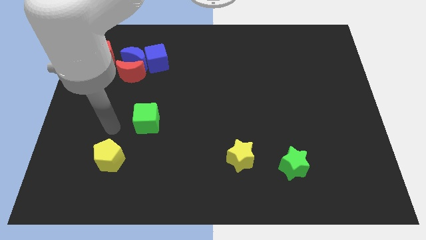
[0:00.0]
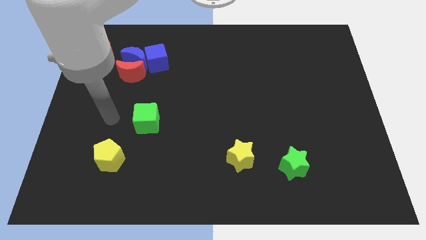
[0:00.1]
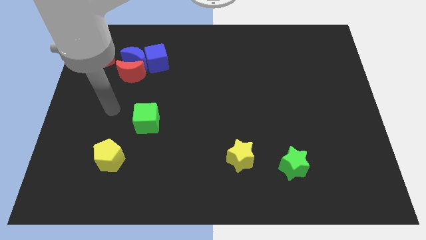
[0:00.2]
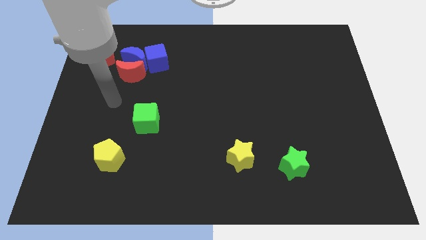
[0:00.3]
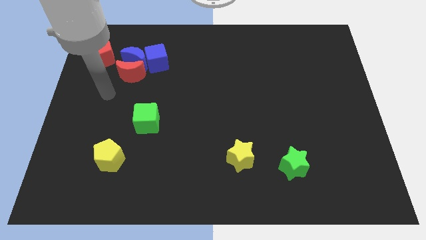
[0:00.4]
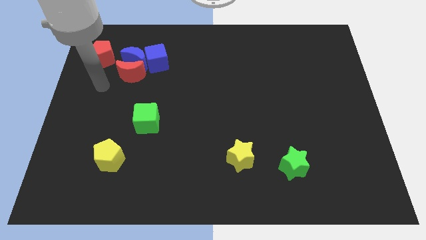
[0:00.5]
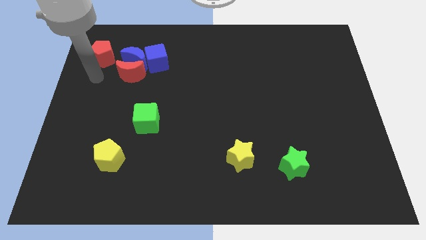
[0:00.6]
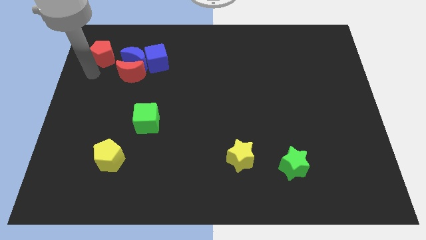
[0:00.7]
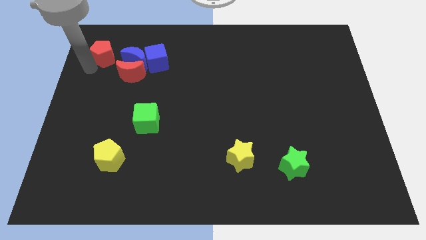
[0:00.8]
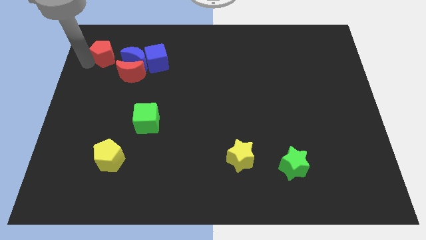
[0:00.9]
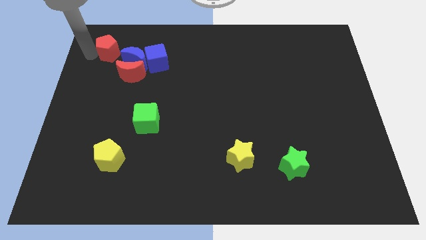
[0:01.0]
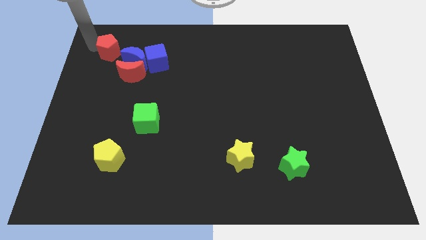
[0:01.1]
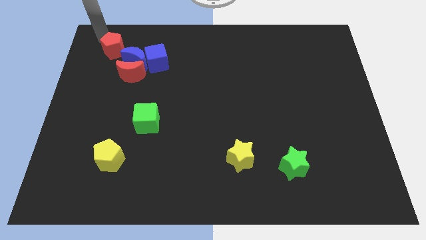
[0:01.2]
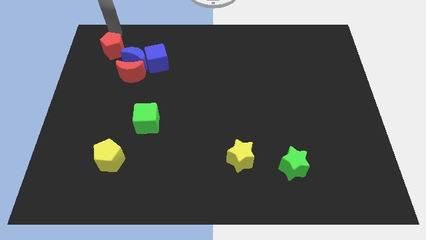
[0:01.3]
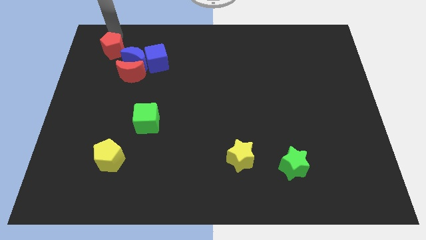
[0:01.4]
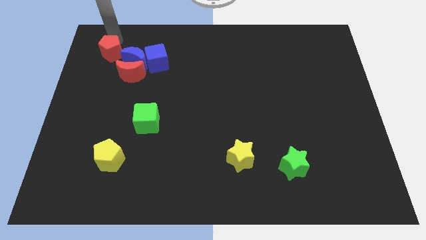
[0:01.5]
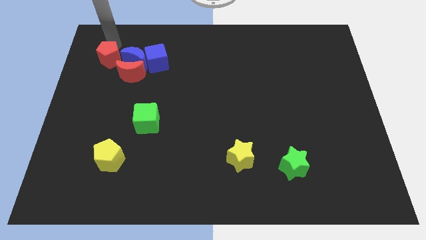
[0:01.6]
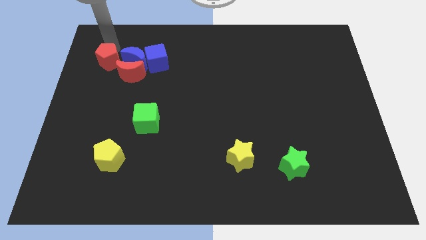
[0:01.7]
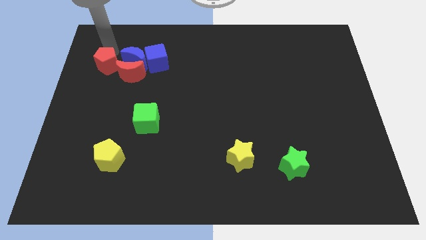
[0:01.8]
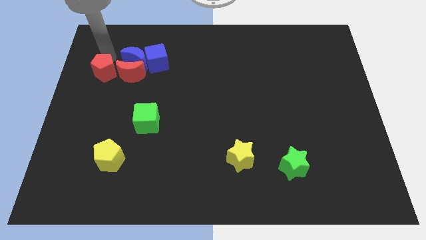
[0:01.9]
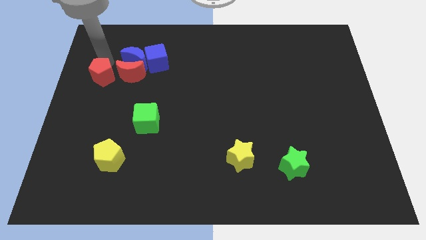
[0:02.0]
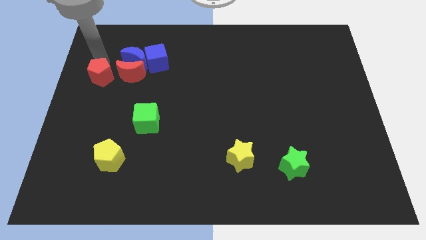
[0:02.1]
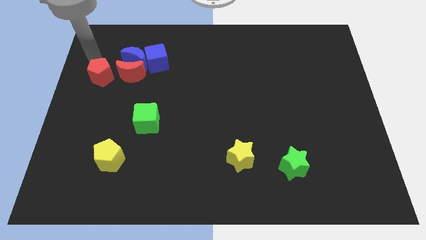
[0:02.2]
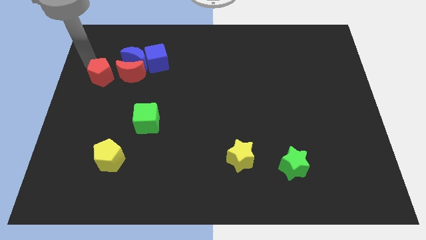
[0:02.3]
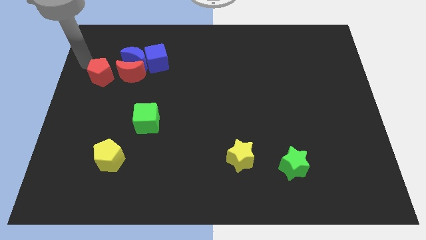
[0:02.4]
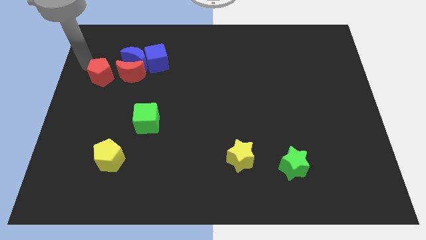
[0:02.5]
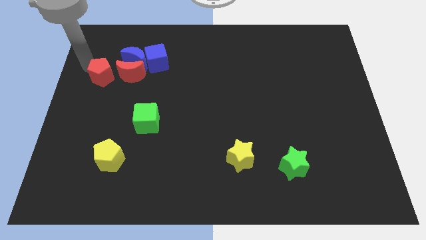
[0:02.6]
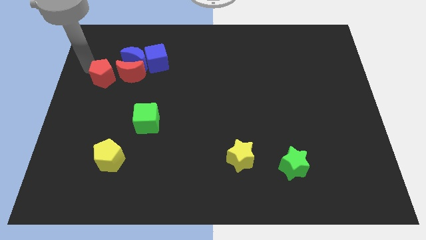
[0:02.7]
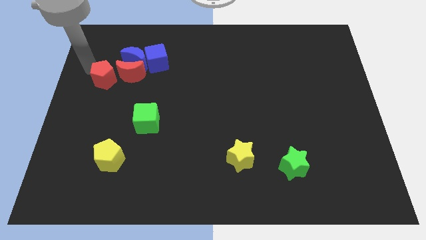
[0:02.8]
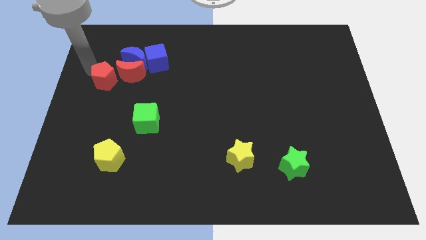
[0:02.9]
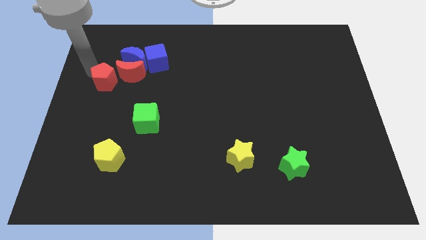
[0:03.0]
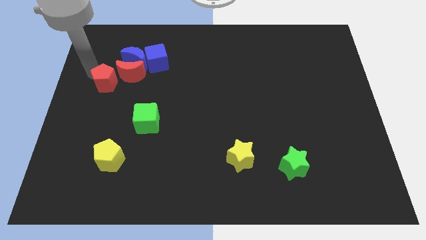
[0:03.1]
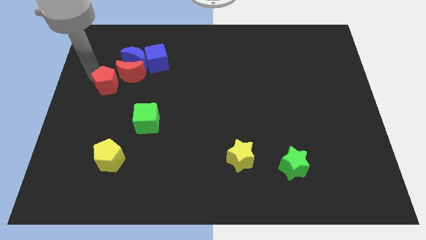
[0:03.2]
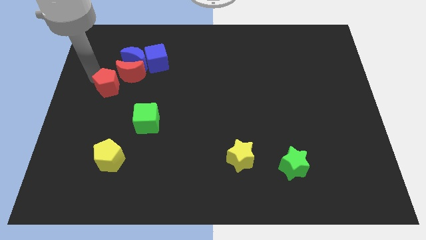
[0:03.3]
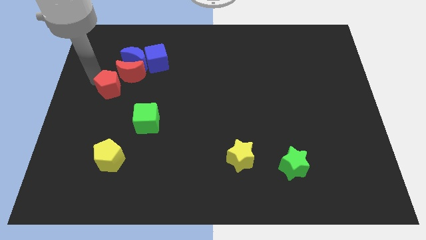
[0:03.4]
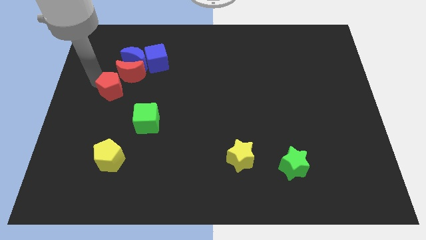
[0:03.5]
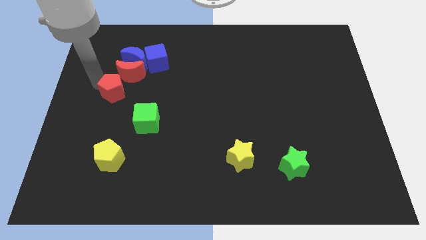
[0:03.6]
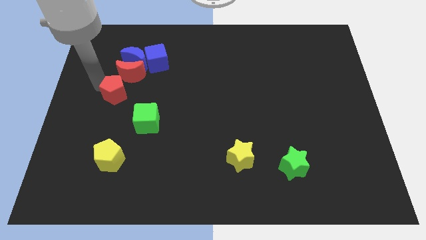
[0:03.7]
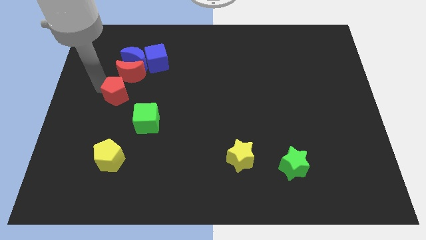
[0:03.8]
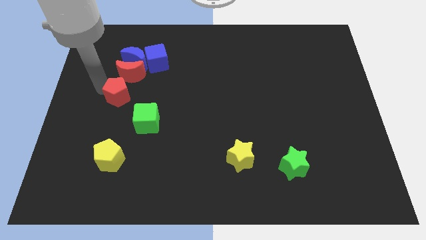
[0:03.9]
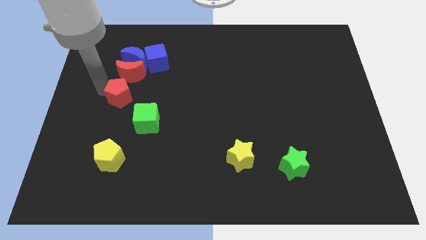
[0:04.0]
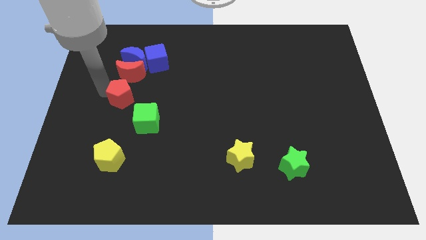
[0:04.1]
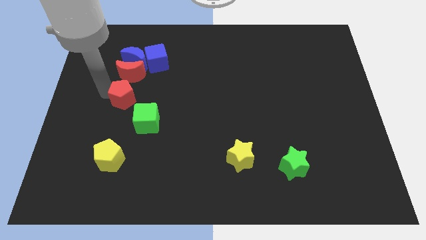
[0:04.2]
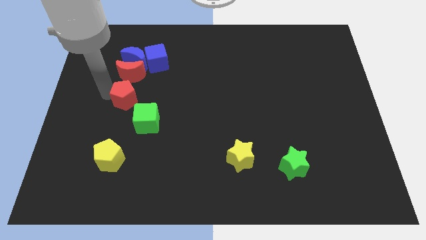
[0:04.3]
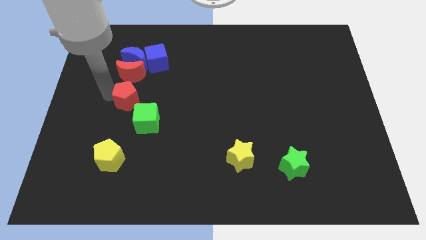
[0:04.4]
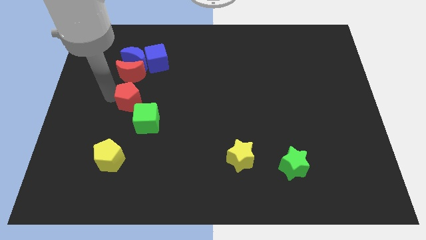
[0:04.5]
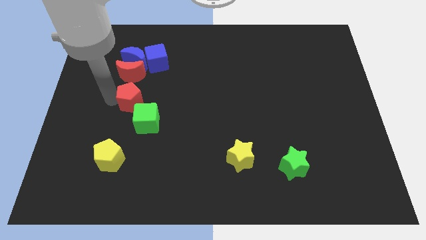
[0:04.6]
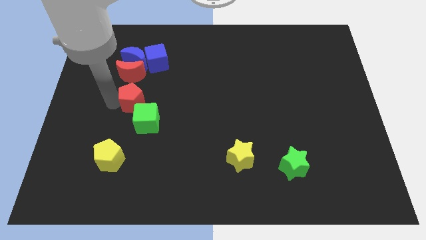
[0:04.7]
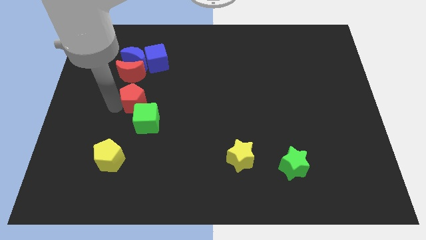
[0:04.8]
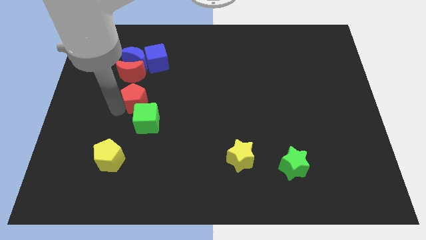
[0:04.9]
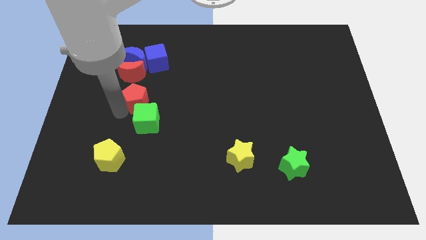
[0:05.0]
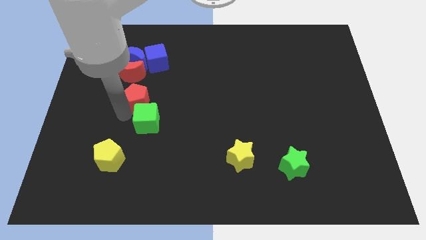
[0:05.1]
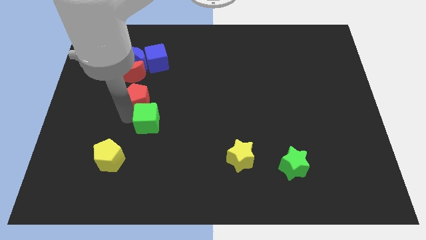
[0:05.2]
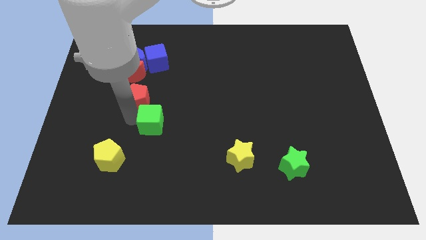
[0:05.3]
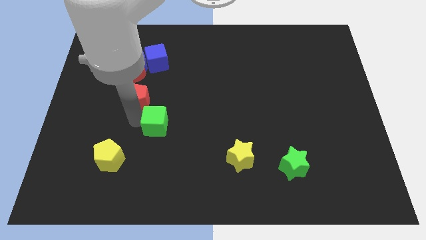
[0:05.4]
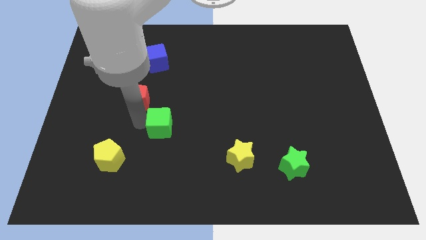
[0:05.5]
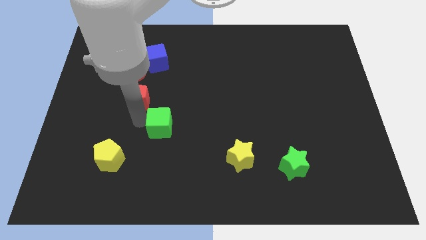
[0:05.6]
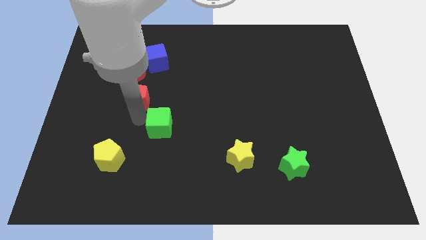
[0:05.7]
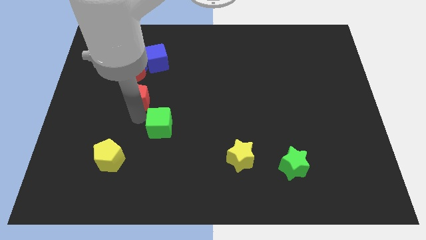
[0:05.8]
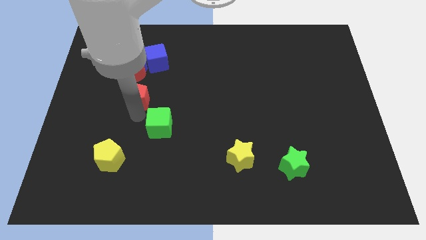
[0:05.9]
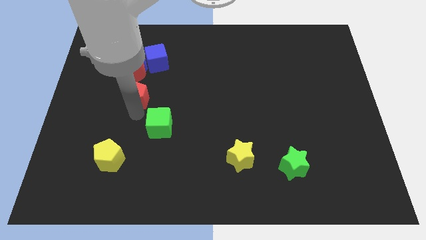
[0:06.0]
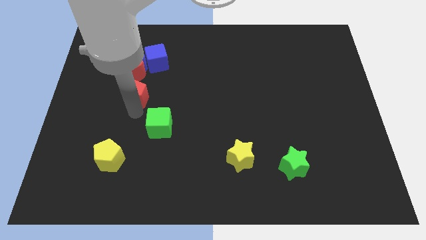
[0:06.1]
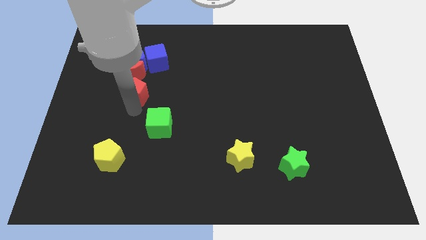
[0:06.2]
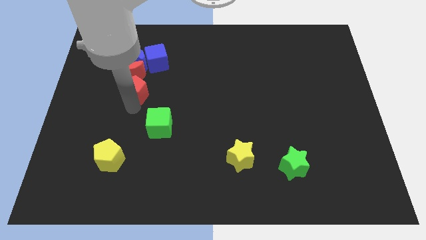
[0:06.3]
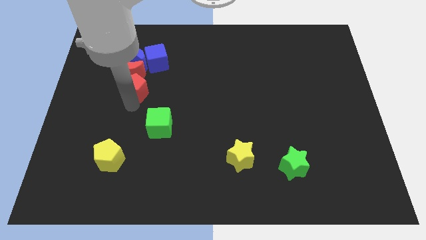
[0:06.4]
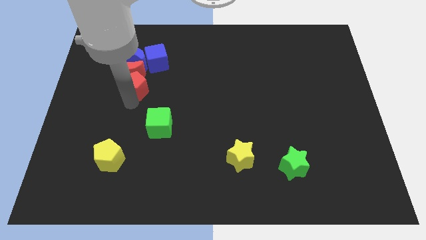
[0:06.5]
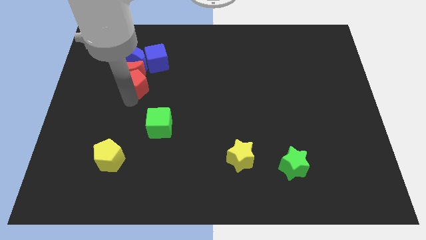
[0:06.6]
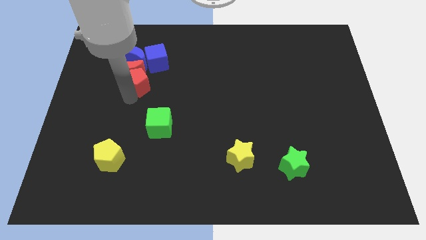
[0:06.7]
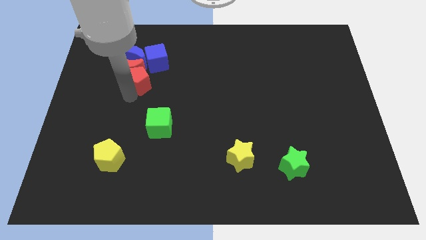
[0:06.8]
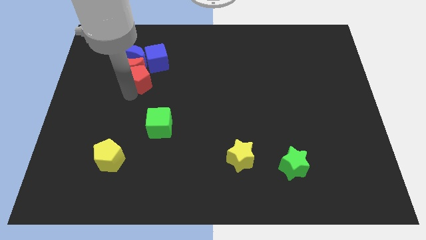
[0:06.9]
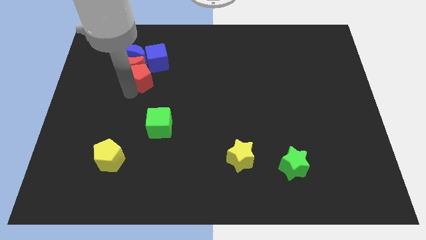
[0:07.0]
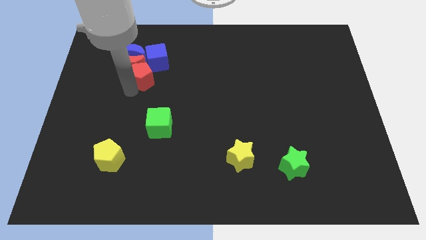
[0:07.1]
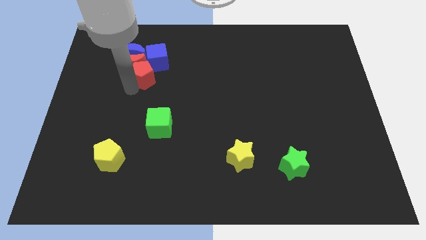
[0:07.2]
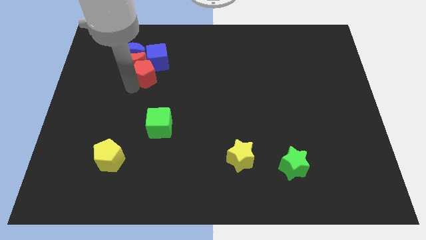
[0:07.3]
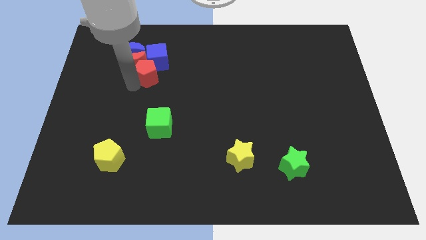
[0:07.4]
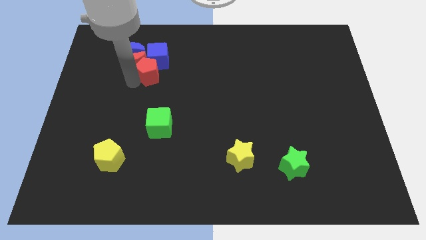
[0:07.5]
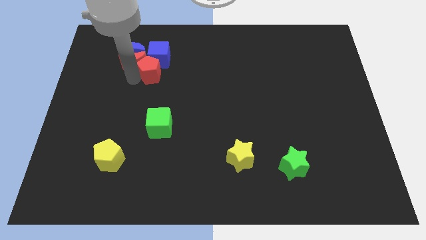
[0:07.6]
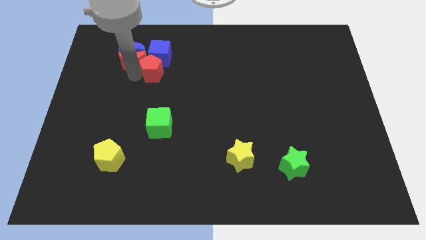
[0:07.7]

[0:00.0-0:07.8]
put the red pentagon diagonally down and to the right of the blue cube
